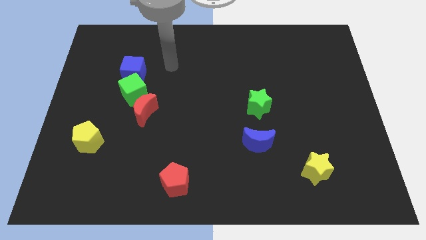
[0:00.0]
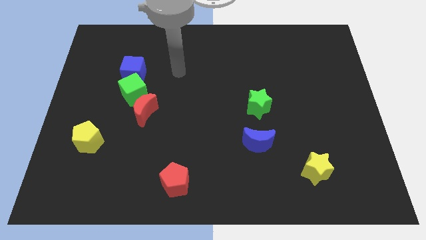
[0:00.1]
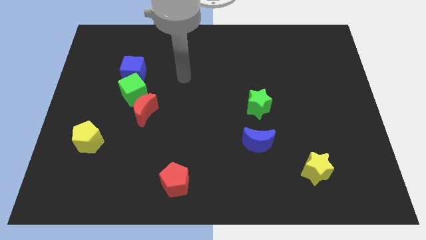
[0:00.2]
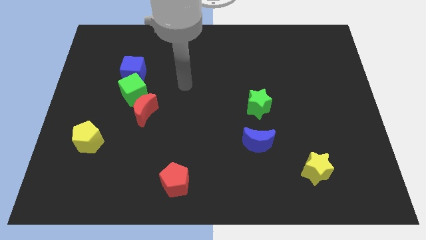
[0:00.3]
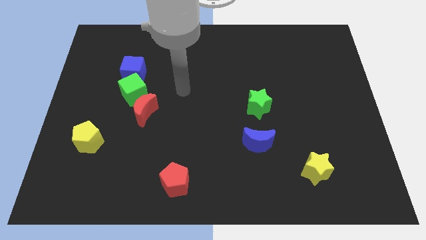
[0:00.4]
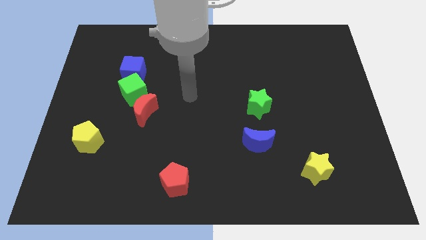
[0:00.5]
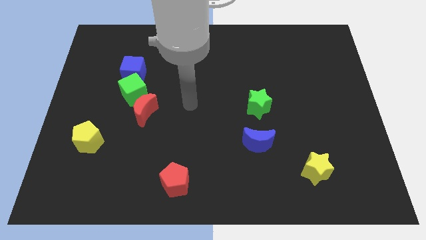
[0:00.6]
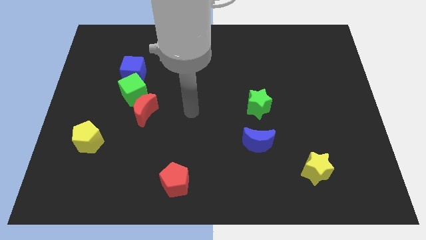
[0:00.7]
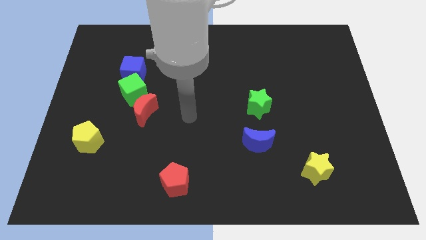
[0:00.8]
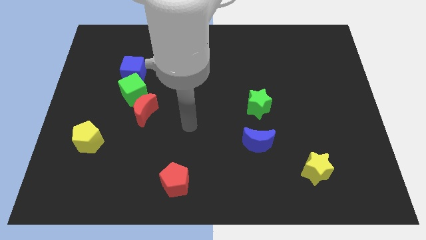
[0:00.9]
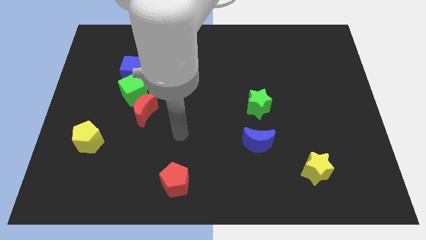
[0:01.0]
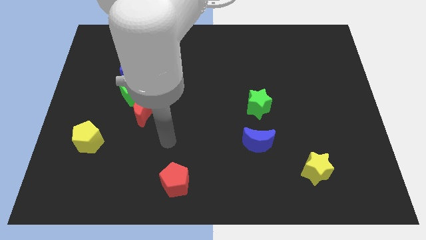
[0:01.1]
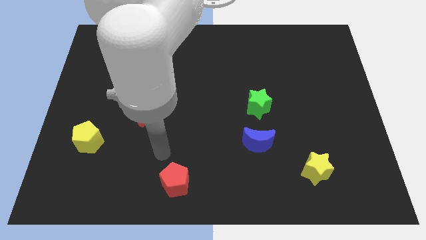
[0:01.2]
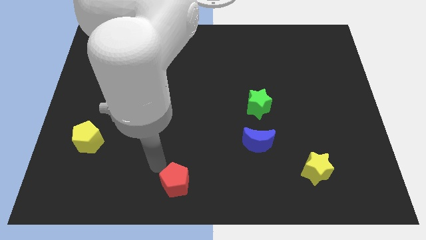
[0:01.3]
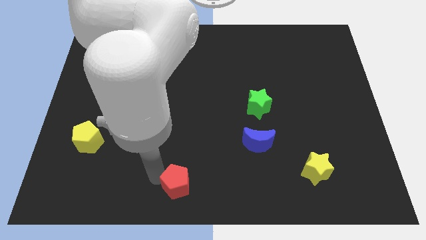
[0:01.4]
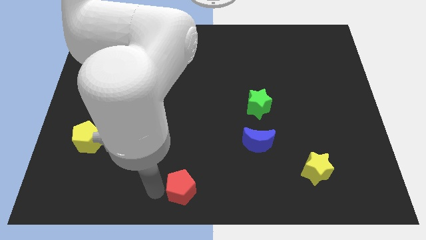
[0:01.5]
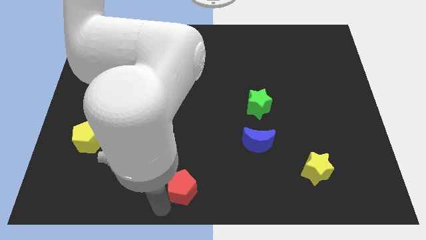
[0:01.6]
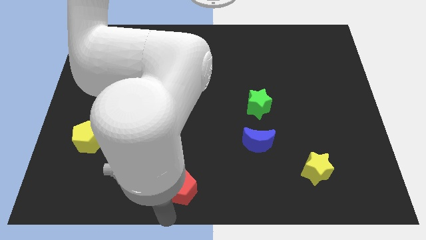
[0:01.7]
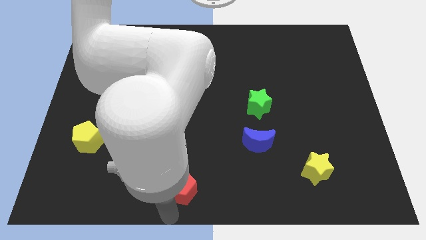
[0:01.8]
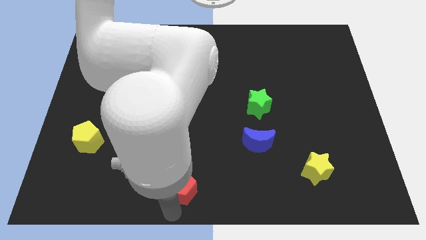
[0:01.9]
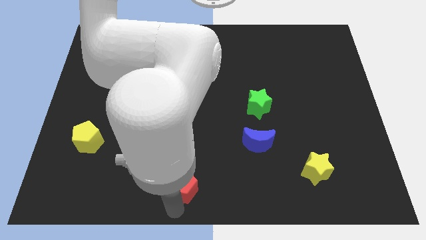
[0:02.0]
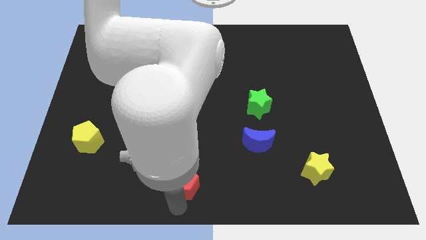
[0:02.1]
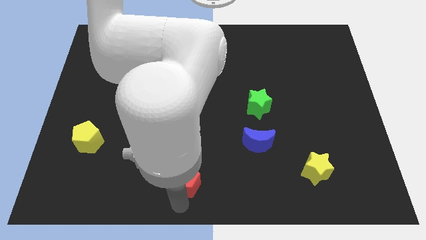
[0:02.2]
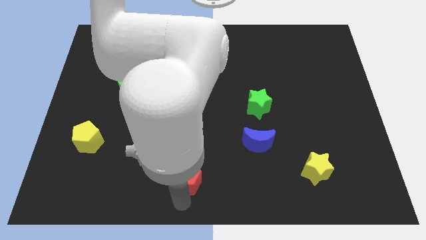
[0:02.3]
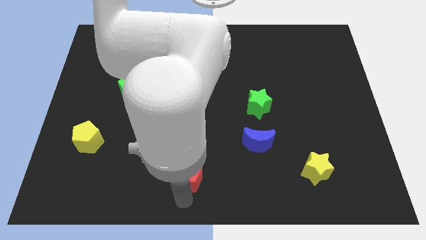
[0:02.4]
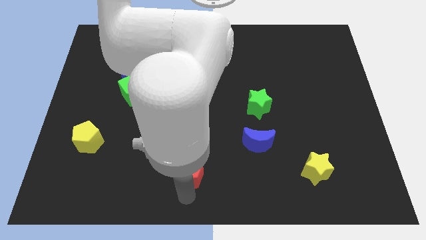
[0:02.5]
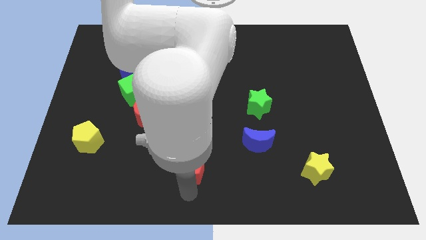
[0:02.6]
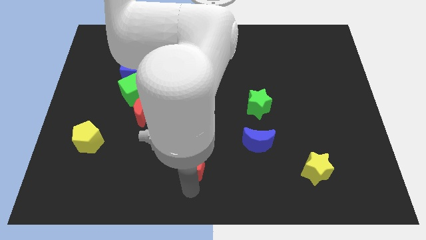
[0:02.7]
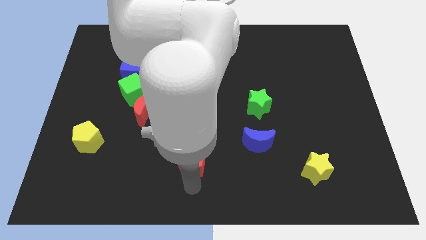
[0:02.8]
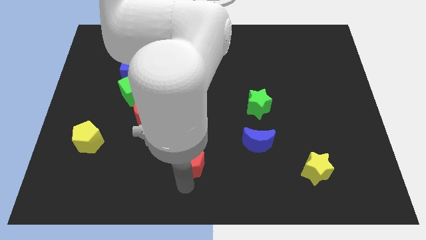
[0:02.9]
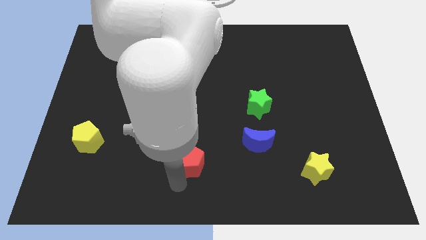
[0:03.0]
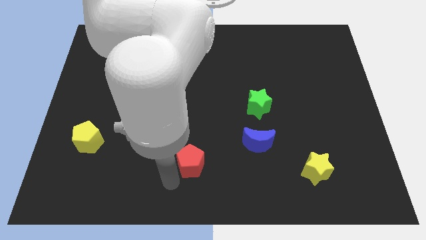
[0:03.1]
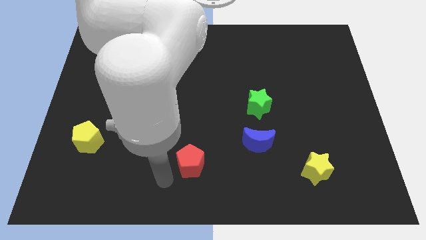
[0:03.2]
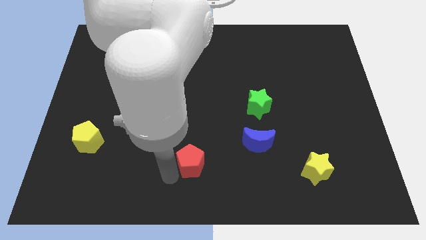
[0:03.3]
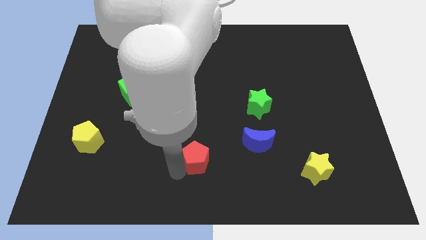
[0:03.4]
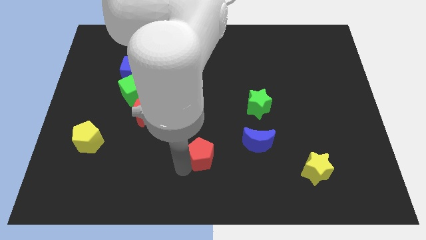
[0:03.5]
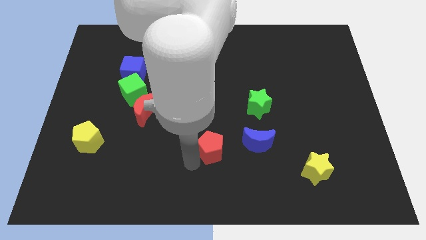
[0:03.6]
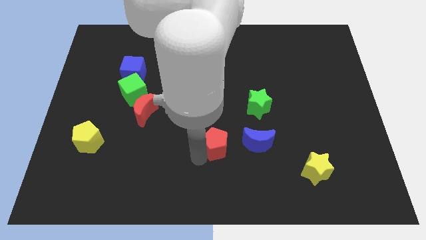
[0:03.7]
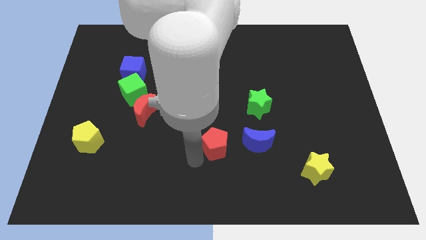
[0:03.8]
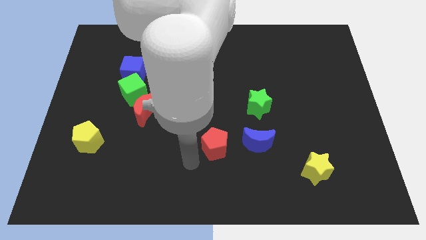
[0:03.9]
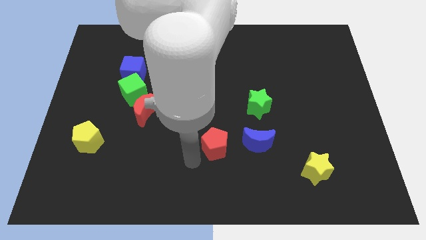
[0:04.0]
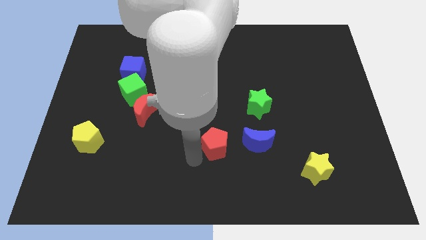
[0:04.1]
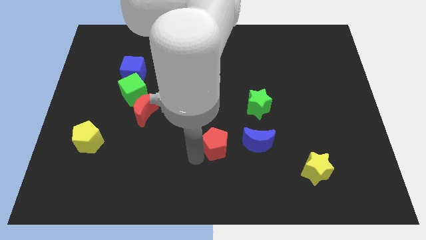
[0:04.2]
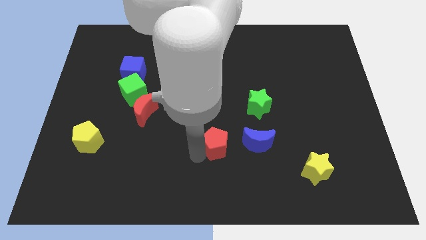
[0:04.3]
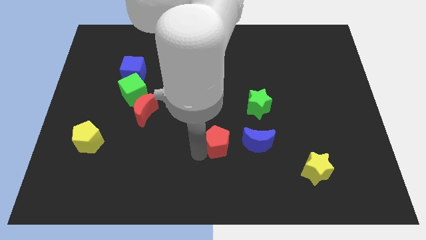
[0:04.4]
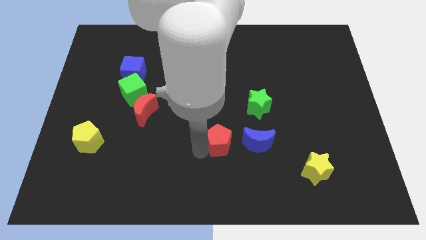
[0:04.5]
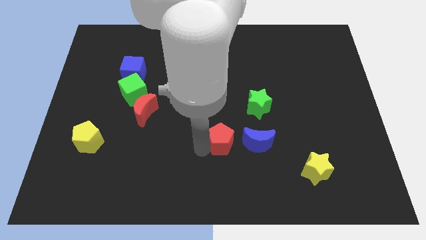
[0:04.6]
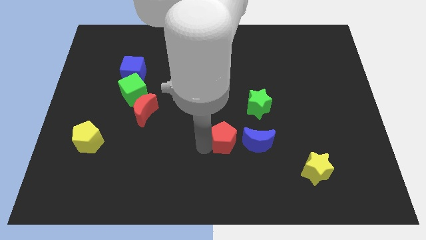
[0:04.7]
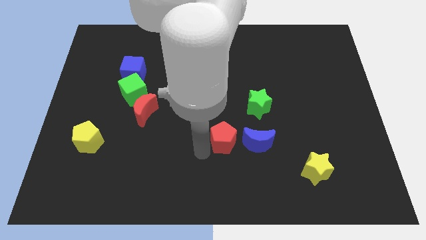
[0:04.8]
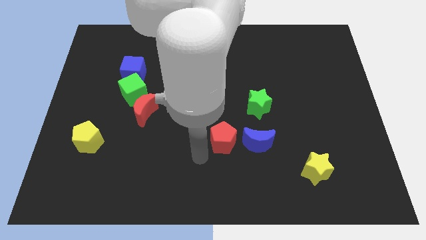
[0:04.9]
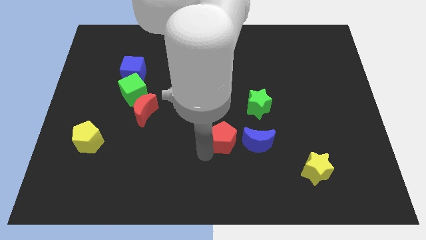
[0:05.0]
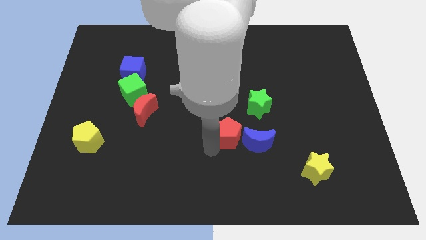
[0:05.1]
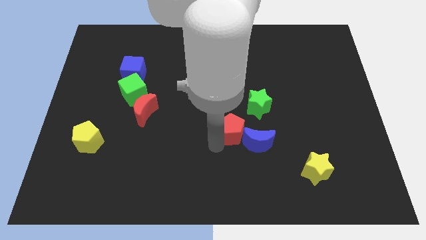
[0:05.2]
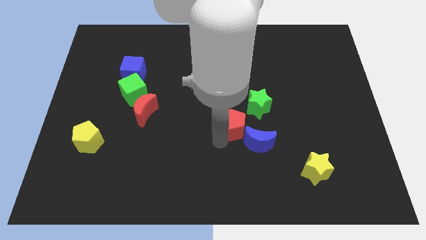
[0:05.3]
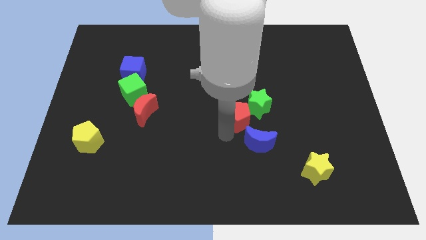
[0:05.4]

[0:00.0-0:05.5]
push the red pentagon next to the green star

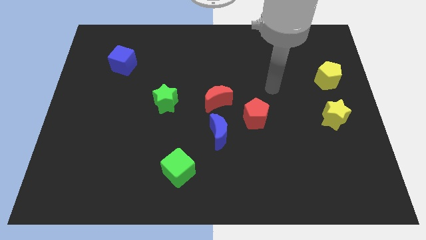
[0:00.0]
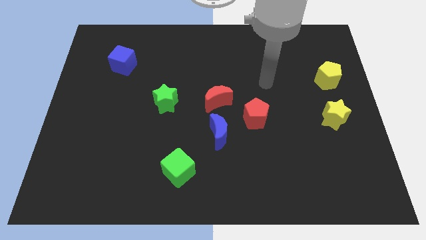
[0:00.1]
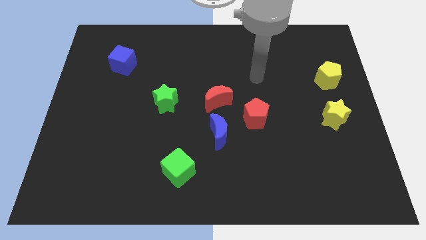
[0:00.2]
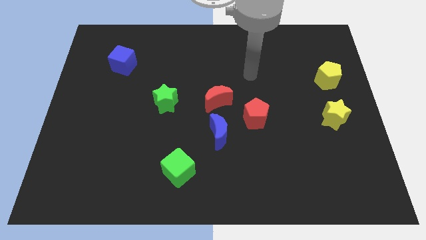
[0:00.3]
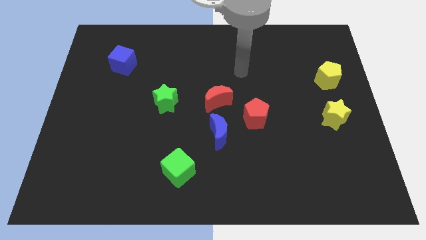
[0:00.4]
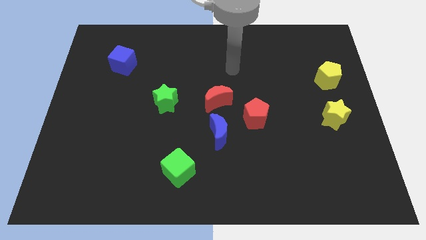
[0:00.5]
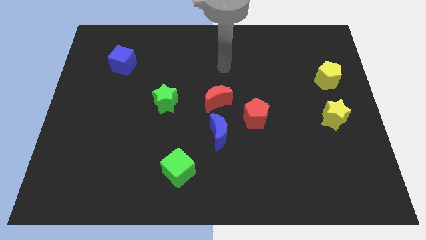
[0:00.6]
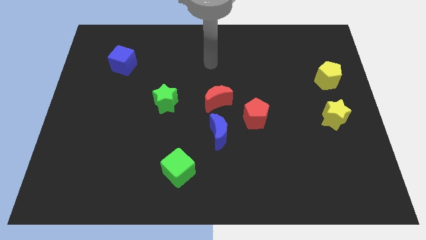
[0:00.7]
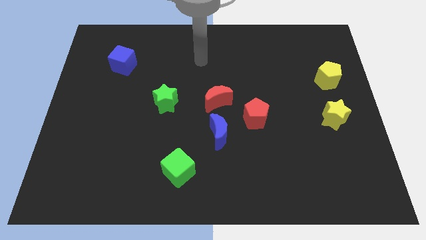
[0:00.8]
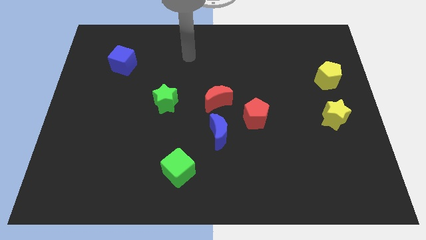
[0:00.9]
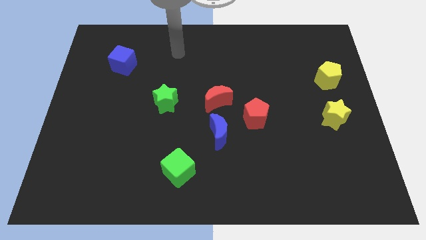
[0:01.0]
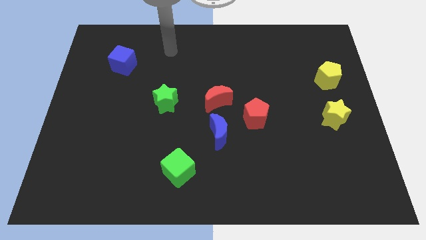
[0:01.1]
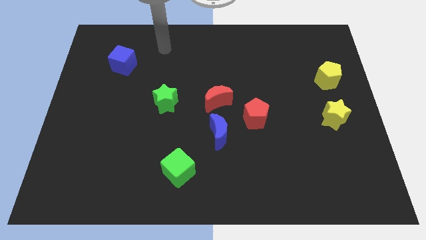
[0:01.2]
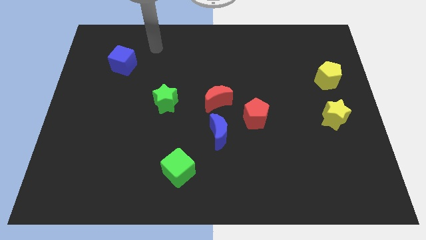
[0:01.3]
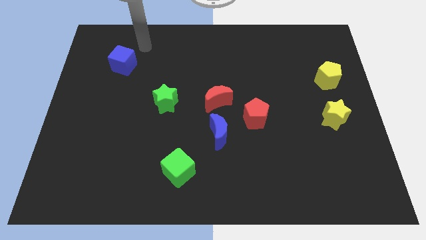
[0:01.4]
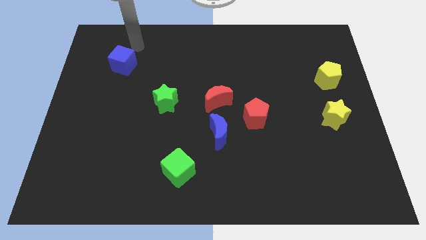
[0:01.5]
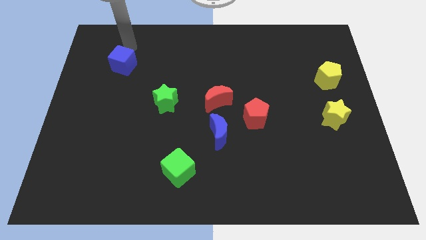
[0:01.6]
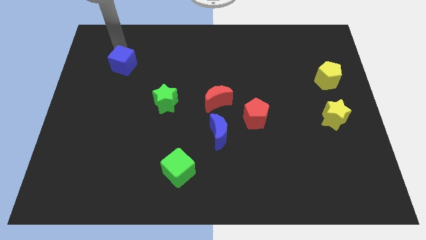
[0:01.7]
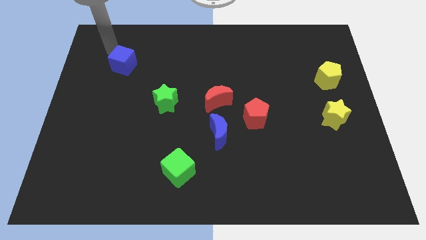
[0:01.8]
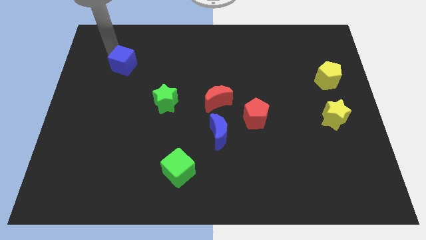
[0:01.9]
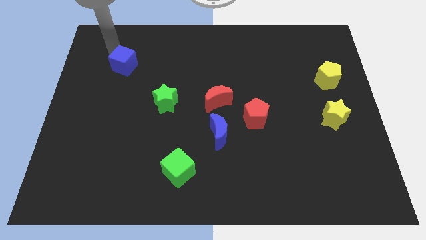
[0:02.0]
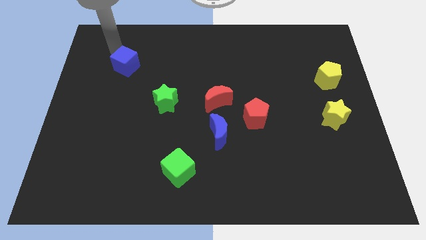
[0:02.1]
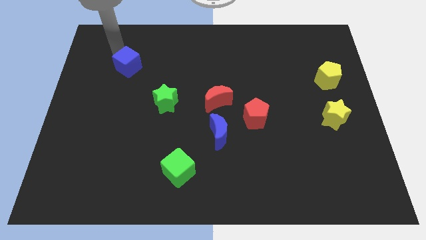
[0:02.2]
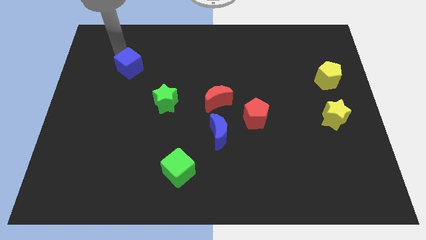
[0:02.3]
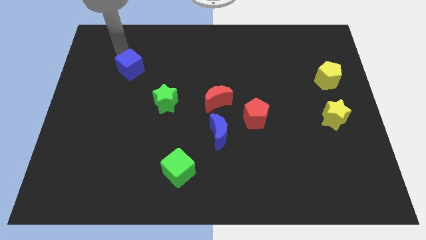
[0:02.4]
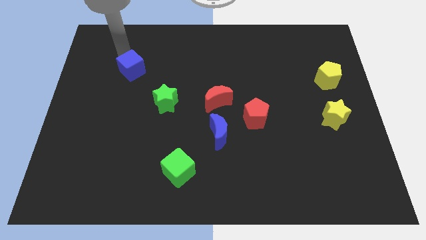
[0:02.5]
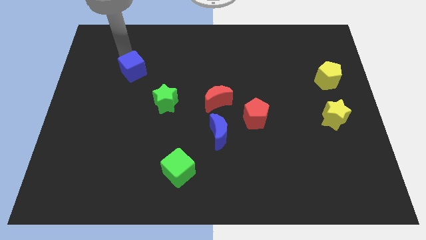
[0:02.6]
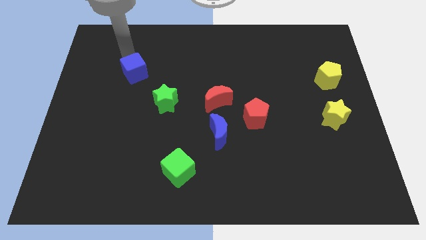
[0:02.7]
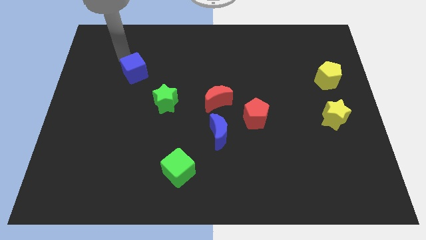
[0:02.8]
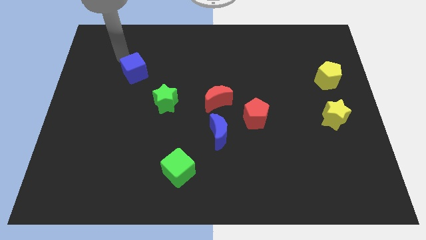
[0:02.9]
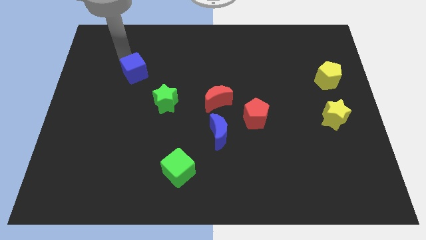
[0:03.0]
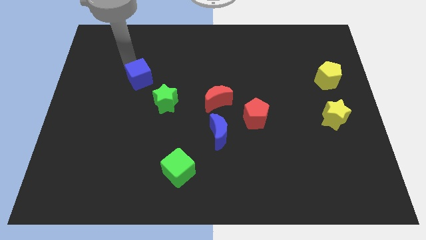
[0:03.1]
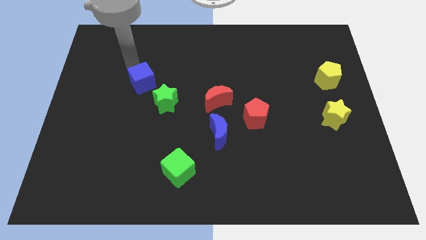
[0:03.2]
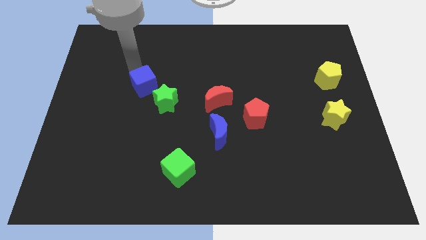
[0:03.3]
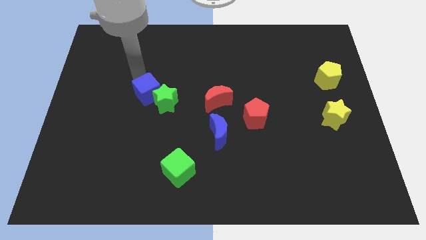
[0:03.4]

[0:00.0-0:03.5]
slide the blue cube next to the green star
